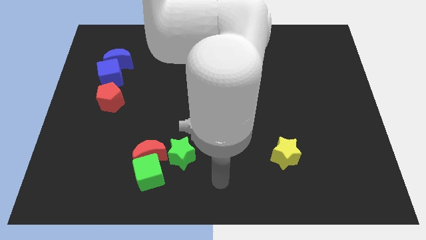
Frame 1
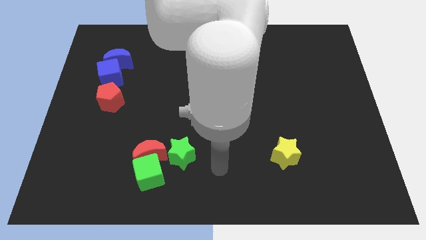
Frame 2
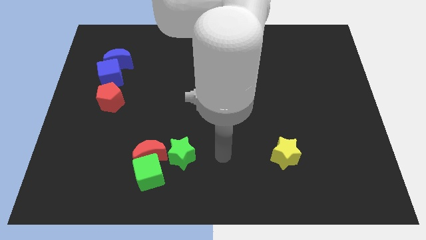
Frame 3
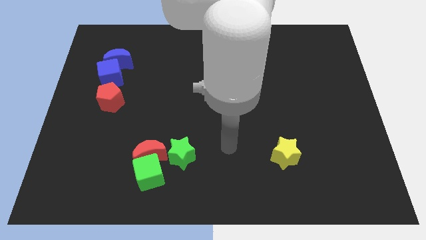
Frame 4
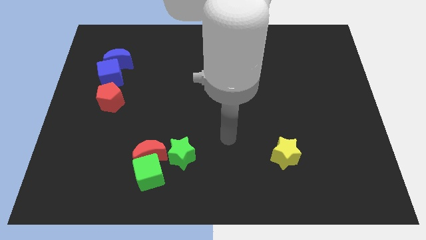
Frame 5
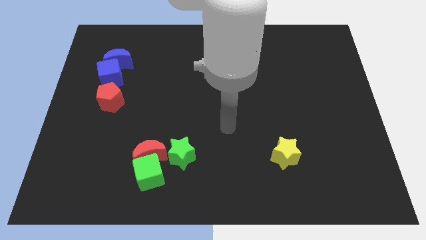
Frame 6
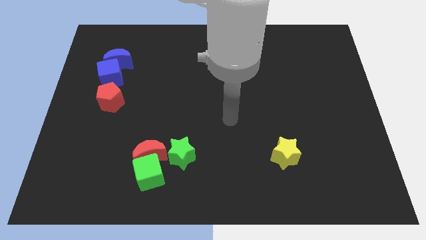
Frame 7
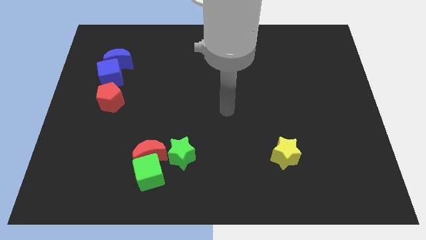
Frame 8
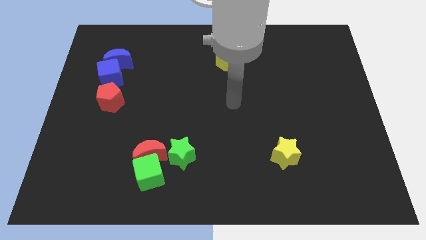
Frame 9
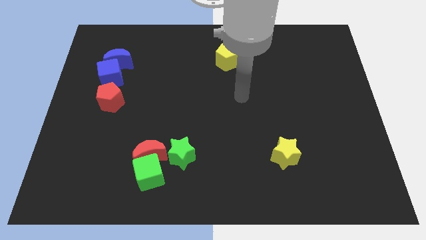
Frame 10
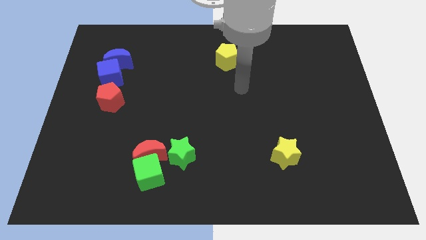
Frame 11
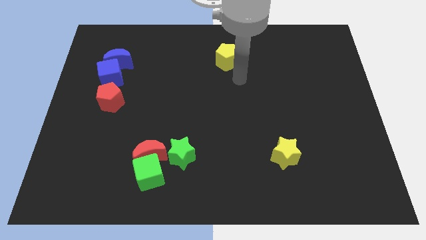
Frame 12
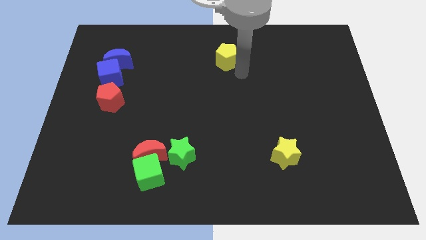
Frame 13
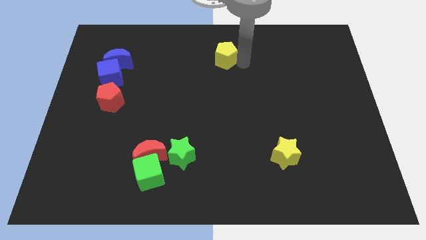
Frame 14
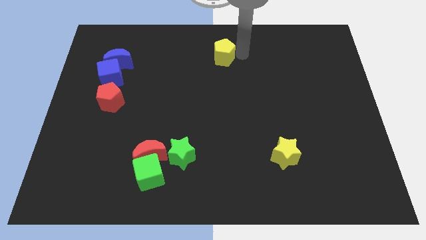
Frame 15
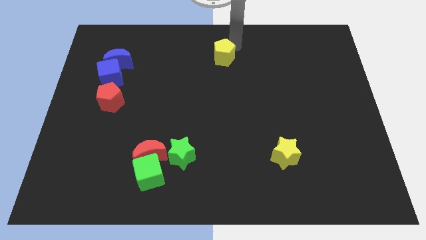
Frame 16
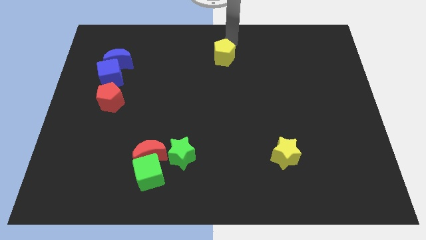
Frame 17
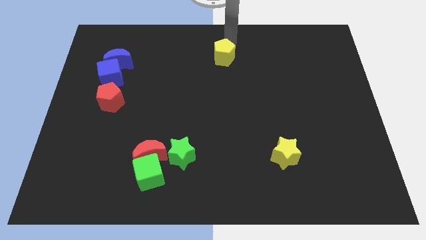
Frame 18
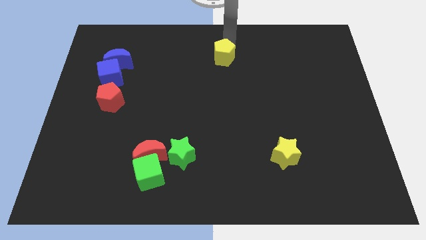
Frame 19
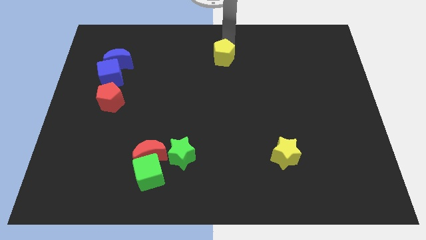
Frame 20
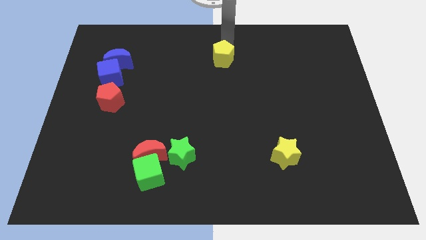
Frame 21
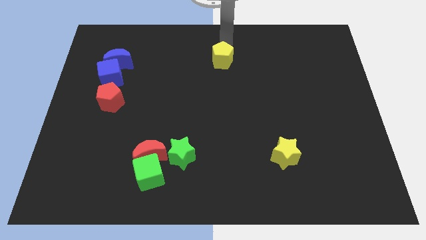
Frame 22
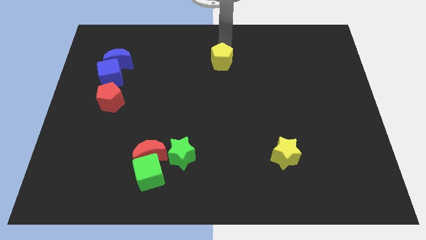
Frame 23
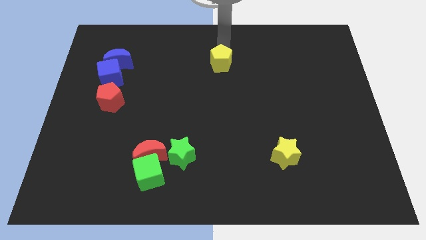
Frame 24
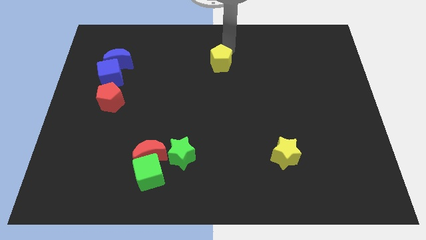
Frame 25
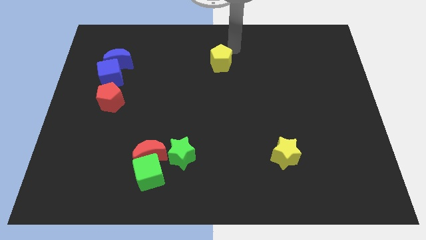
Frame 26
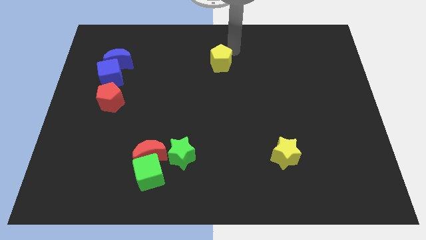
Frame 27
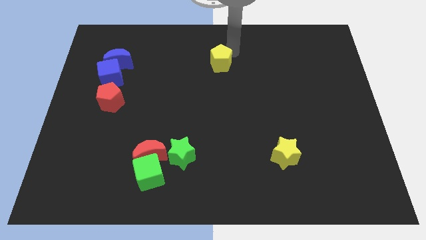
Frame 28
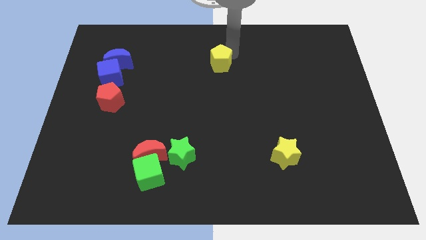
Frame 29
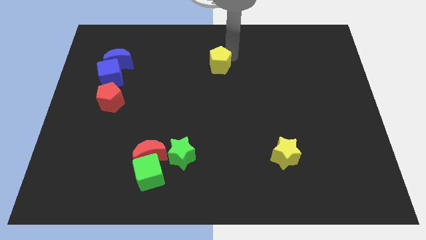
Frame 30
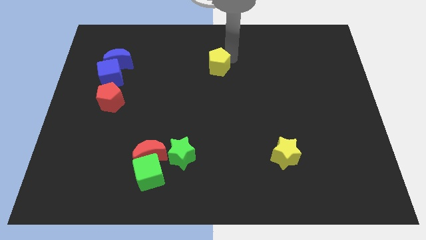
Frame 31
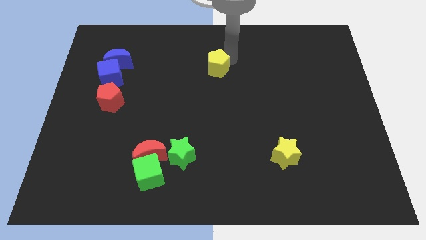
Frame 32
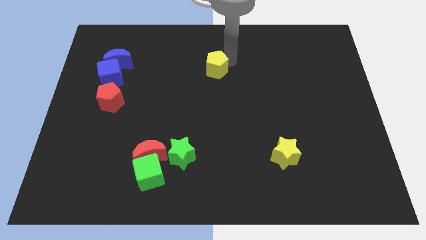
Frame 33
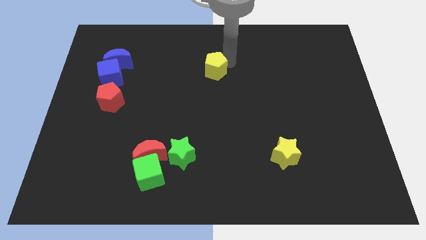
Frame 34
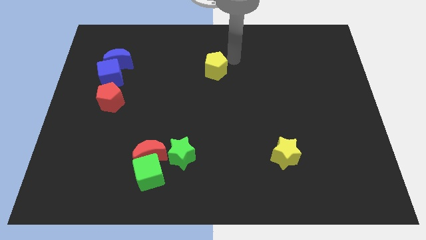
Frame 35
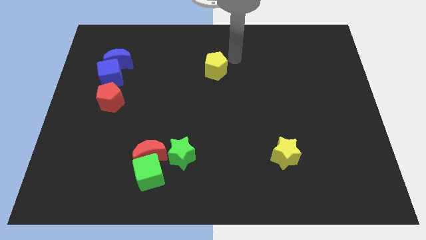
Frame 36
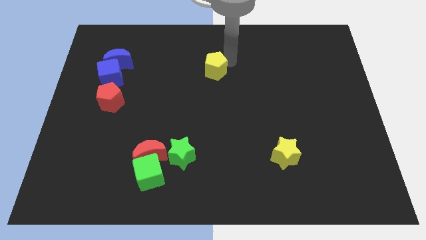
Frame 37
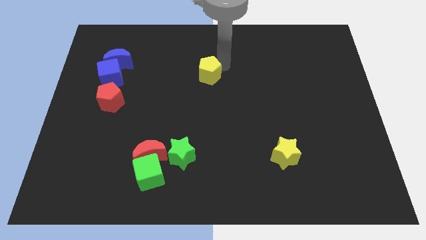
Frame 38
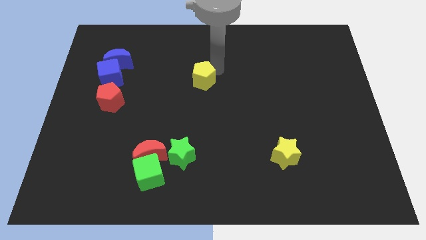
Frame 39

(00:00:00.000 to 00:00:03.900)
slightly move the yellow pentagon downwards and to the left diagonally

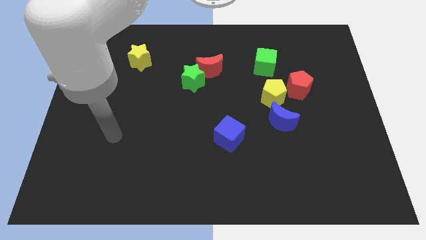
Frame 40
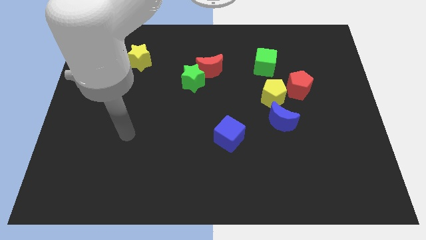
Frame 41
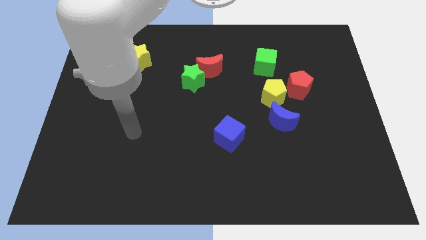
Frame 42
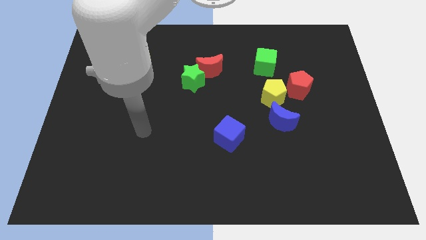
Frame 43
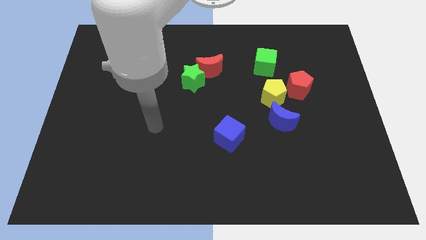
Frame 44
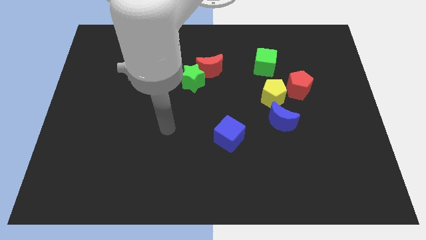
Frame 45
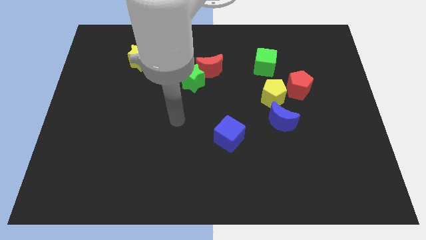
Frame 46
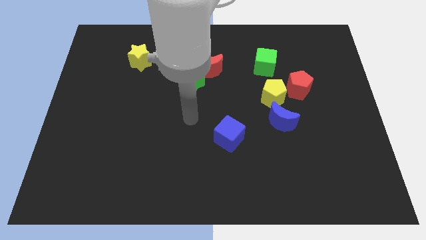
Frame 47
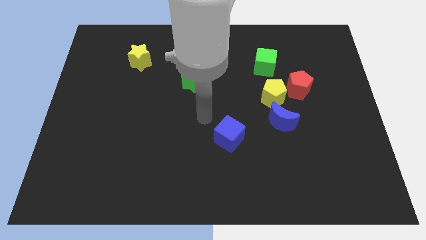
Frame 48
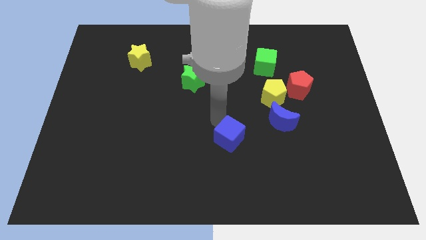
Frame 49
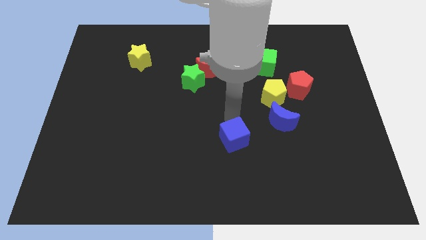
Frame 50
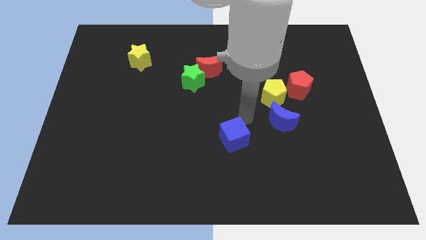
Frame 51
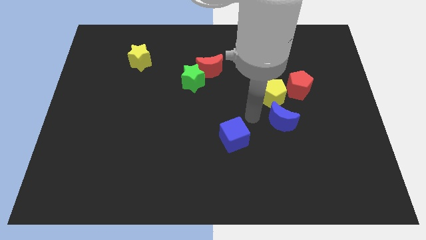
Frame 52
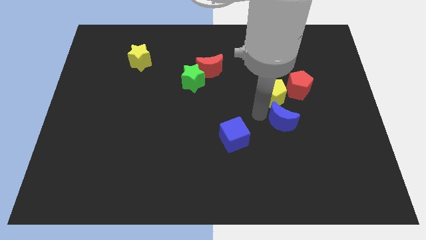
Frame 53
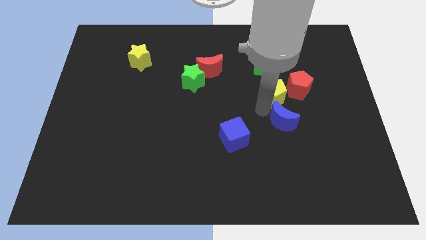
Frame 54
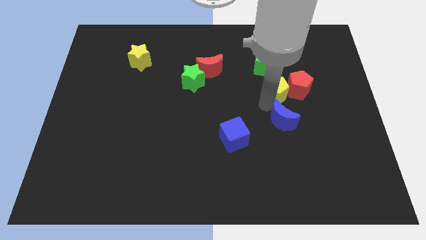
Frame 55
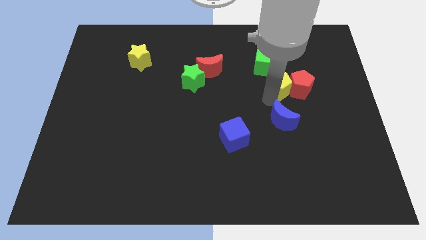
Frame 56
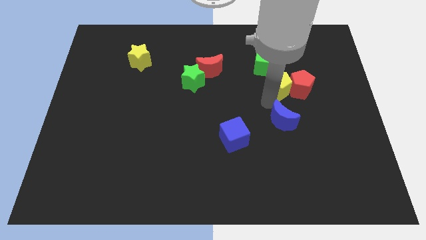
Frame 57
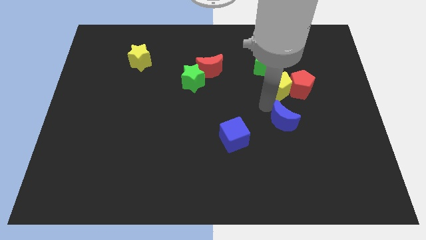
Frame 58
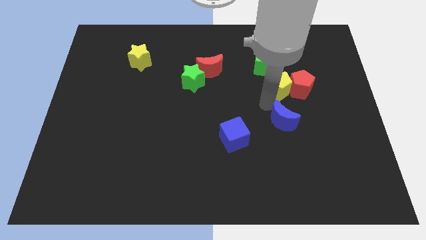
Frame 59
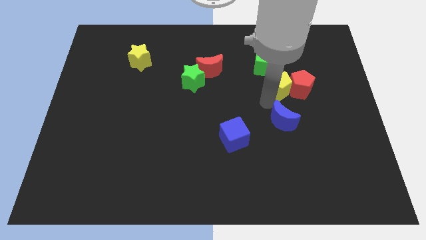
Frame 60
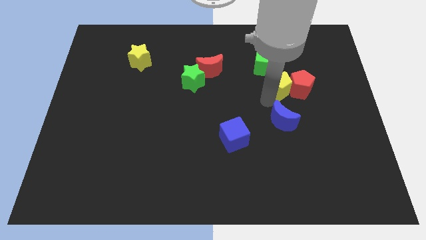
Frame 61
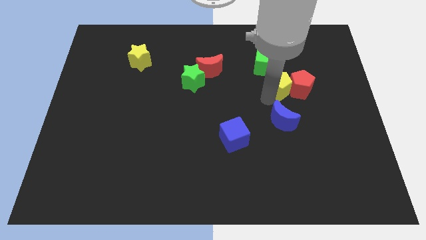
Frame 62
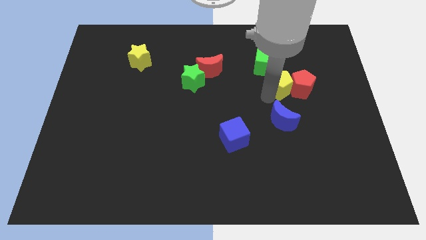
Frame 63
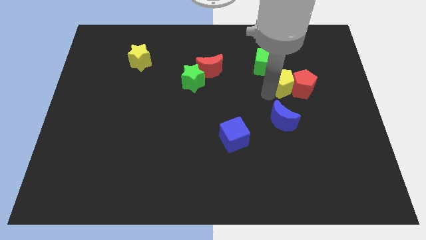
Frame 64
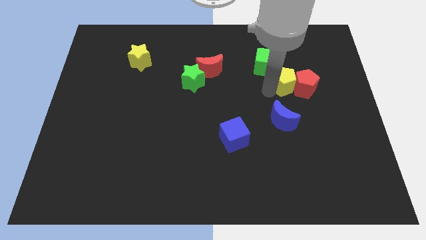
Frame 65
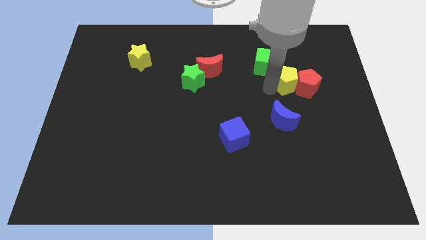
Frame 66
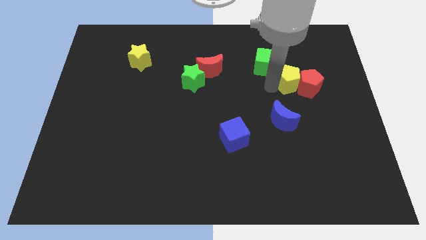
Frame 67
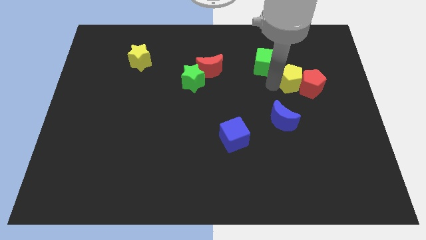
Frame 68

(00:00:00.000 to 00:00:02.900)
push the yellow pentagon upwards and to the right a bit

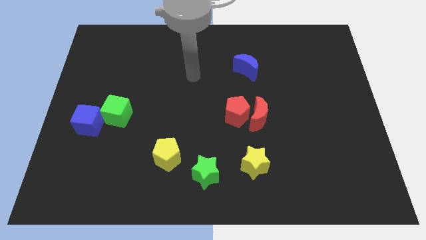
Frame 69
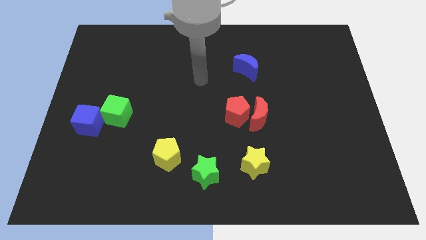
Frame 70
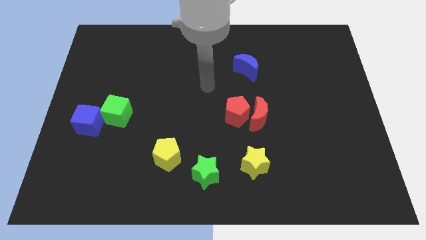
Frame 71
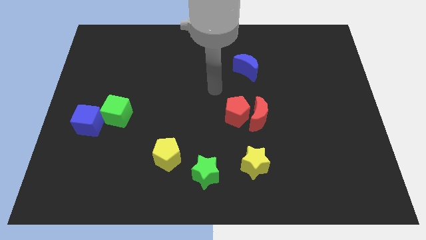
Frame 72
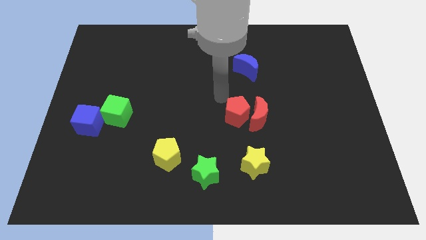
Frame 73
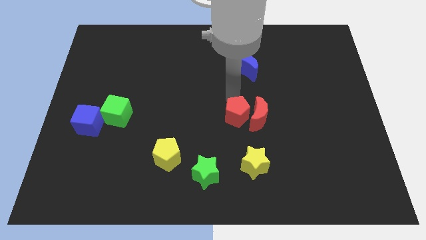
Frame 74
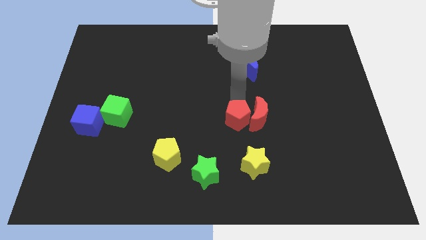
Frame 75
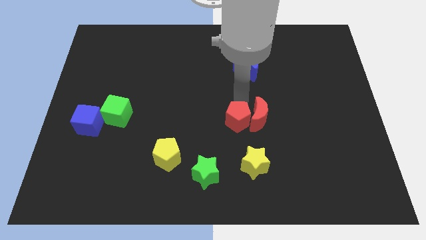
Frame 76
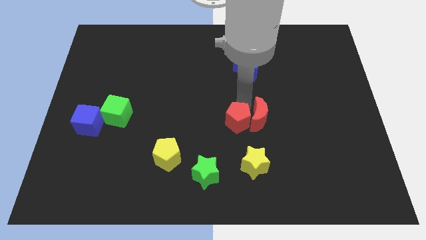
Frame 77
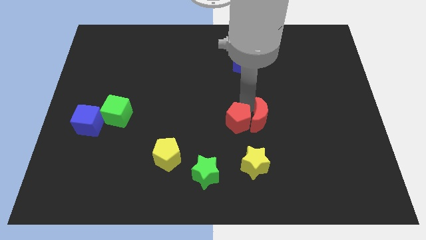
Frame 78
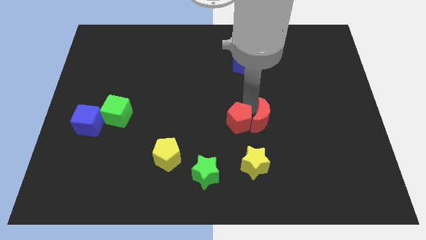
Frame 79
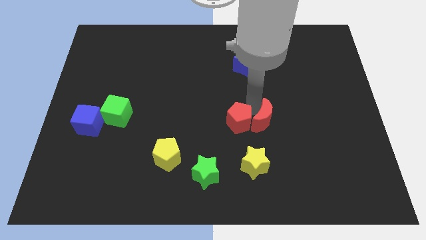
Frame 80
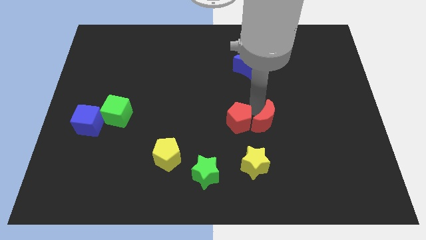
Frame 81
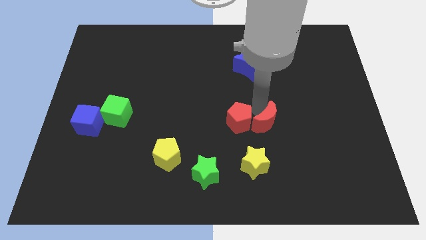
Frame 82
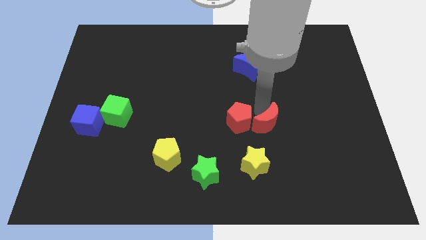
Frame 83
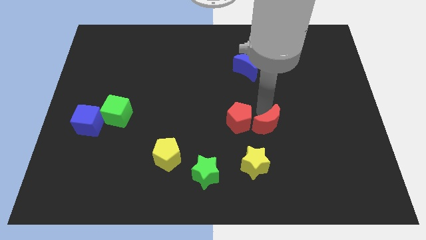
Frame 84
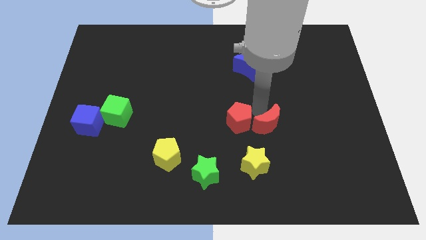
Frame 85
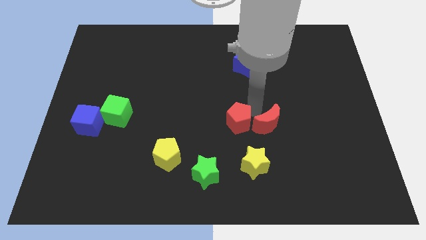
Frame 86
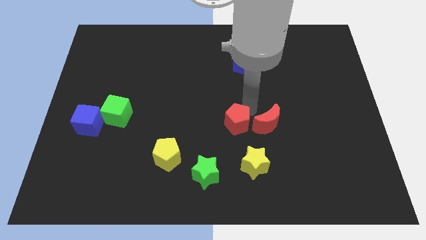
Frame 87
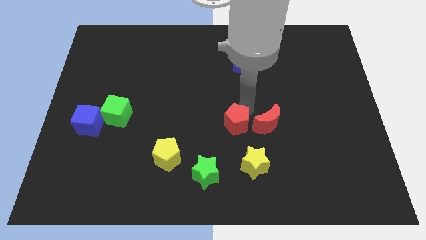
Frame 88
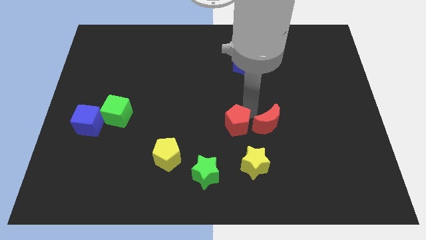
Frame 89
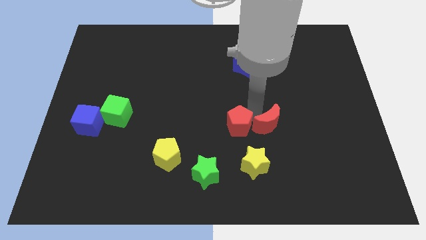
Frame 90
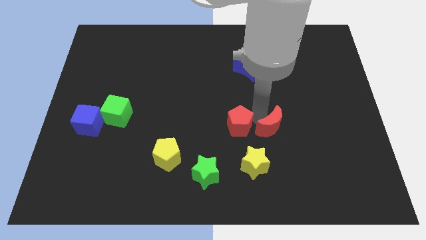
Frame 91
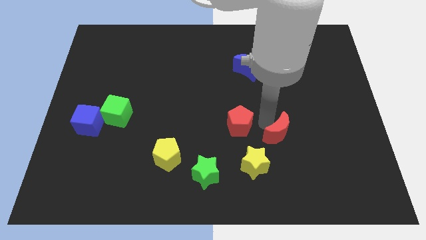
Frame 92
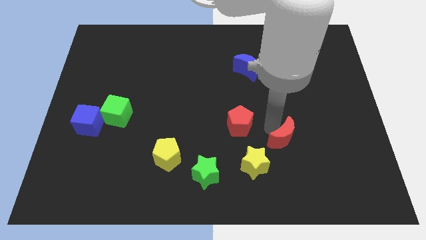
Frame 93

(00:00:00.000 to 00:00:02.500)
slide the red moon a bit downwards and right diagonally
